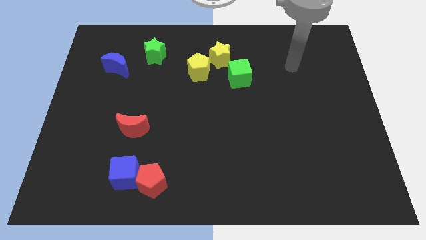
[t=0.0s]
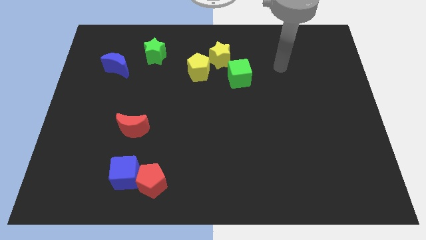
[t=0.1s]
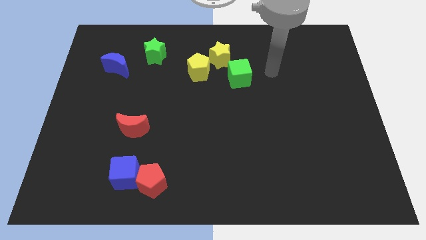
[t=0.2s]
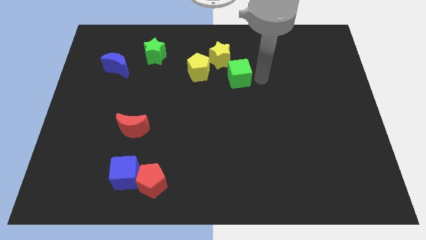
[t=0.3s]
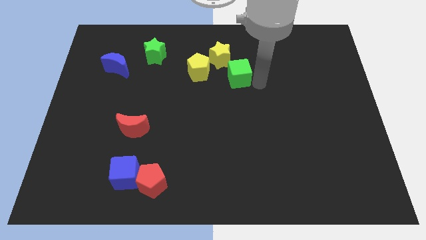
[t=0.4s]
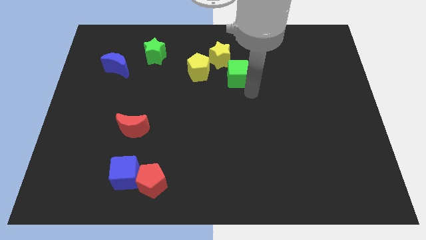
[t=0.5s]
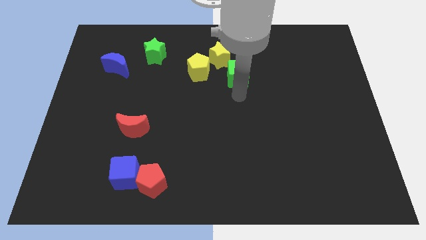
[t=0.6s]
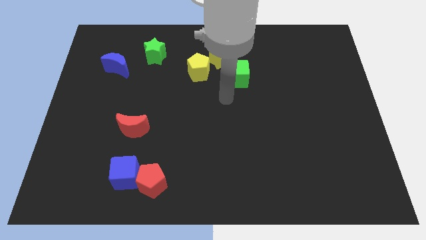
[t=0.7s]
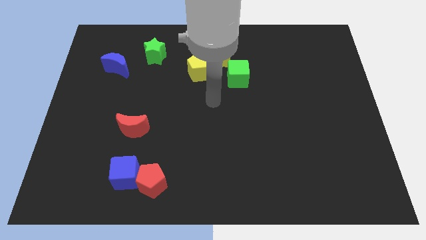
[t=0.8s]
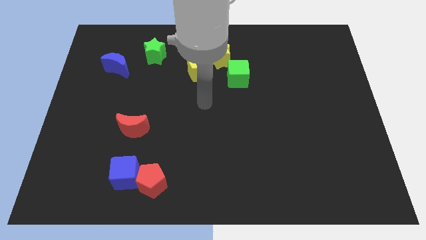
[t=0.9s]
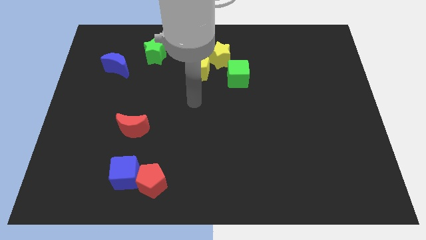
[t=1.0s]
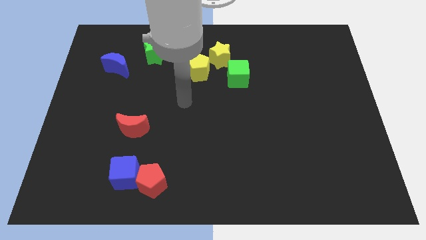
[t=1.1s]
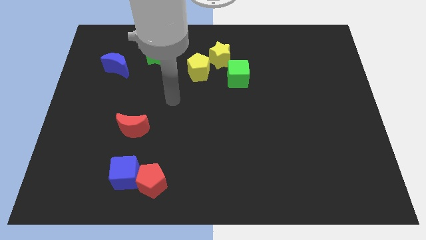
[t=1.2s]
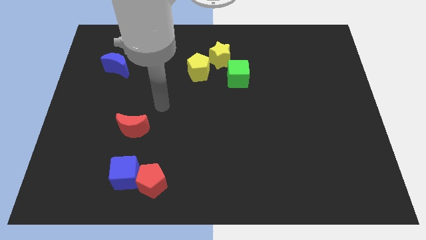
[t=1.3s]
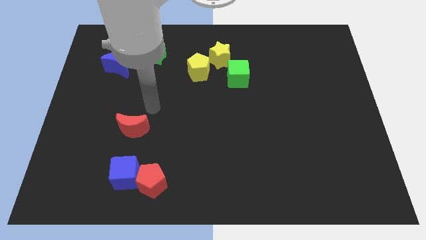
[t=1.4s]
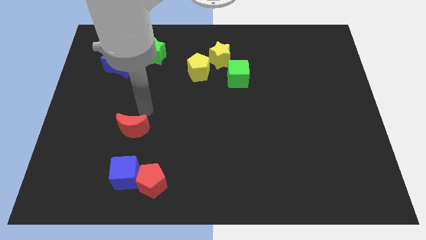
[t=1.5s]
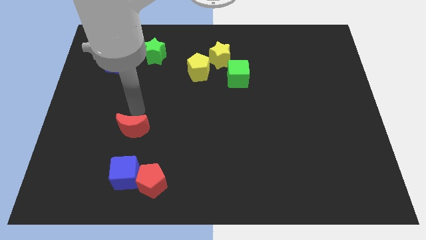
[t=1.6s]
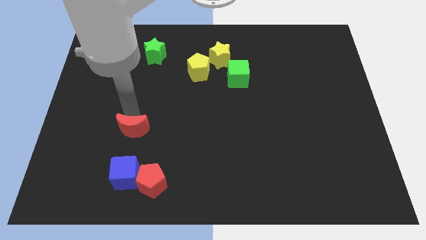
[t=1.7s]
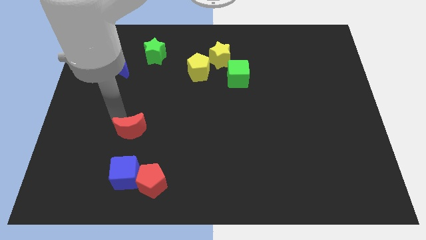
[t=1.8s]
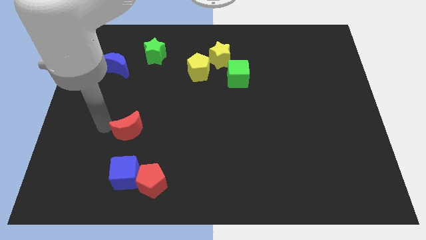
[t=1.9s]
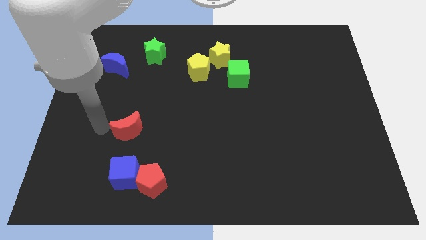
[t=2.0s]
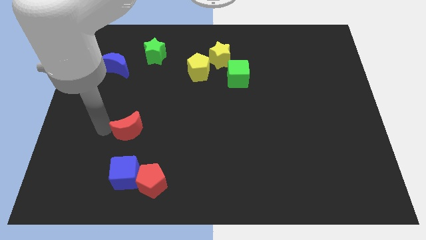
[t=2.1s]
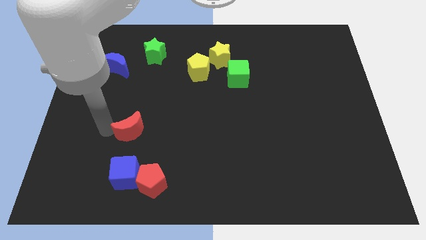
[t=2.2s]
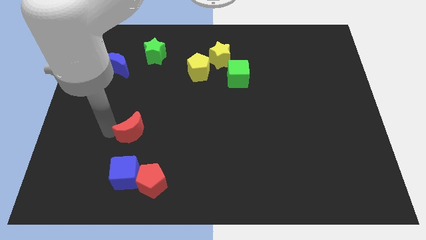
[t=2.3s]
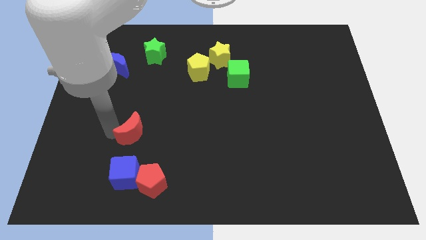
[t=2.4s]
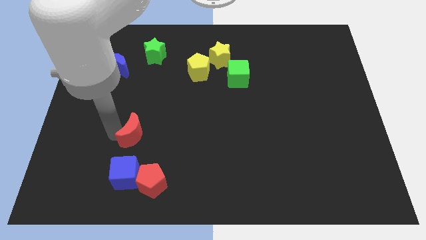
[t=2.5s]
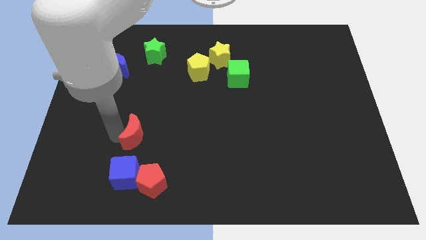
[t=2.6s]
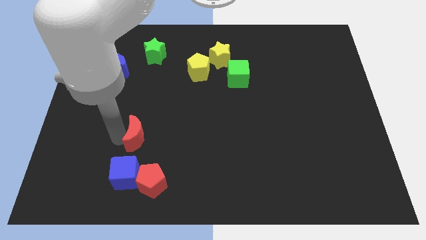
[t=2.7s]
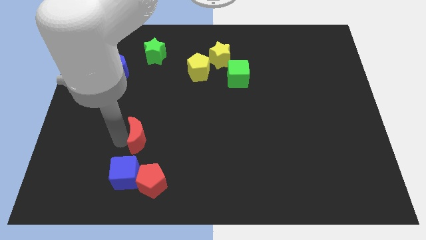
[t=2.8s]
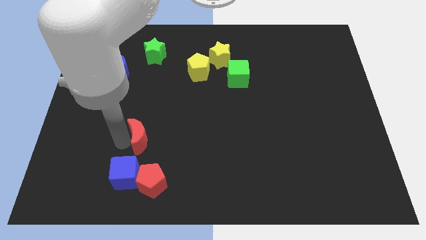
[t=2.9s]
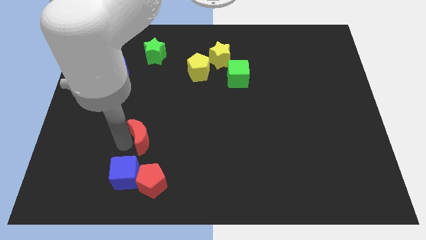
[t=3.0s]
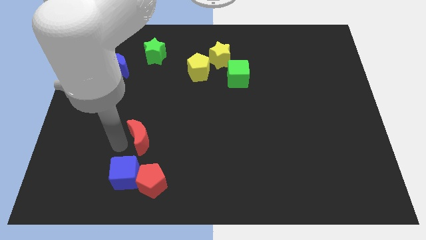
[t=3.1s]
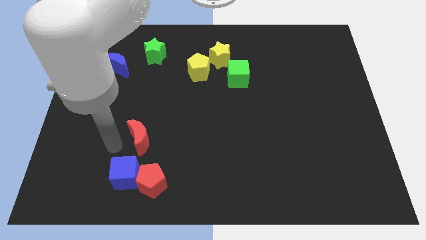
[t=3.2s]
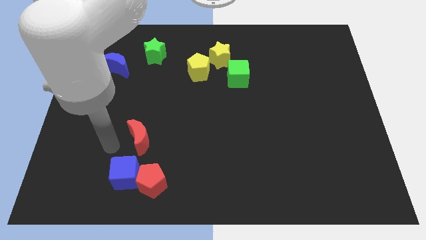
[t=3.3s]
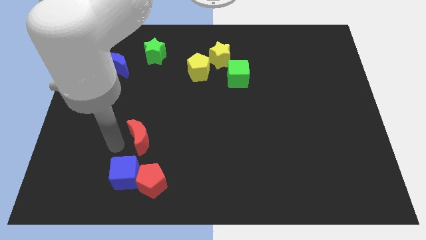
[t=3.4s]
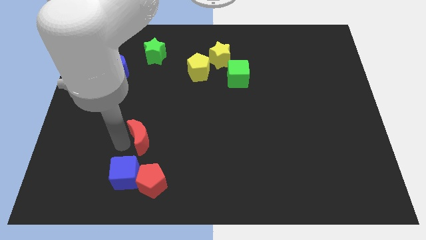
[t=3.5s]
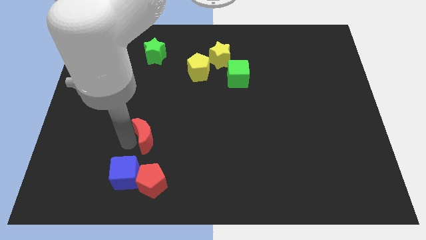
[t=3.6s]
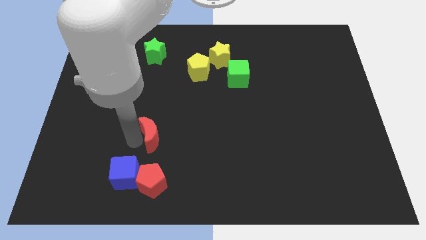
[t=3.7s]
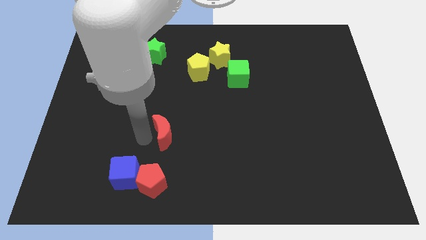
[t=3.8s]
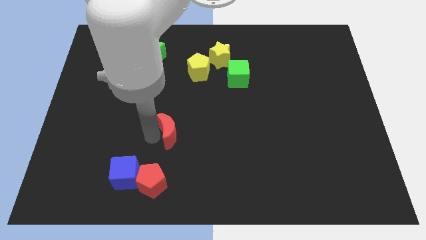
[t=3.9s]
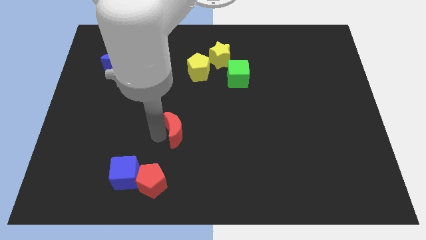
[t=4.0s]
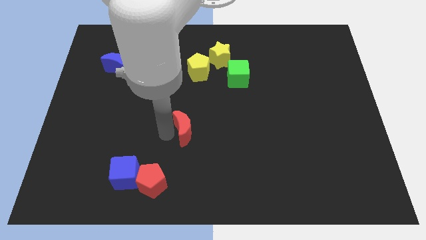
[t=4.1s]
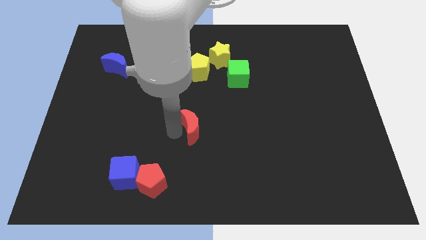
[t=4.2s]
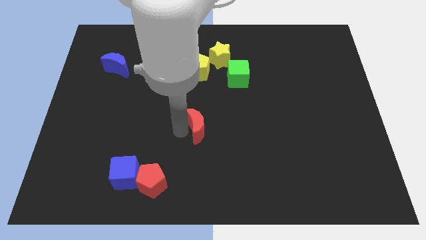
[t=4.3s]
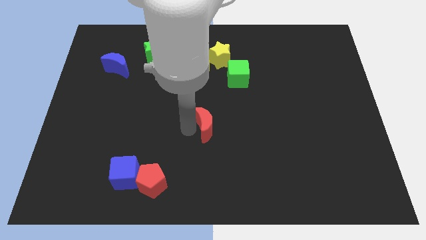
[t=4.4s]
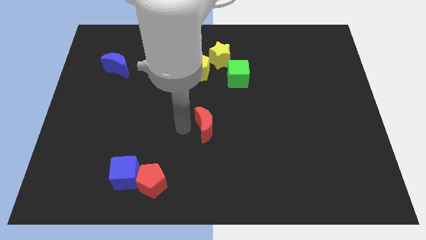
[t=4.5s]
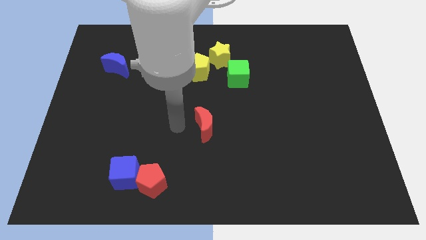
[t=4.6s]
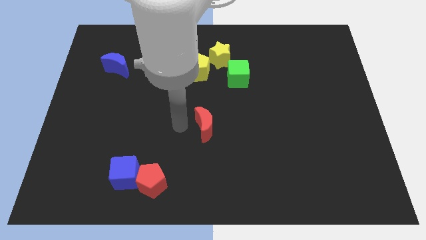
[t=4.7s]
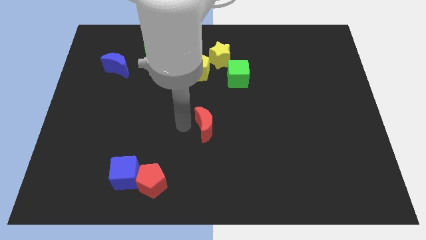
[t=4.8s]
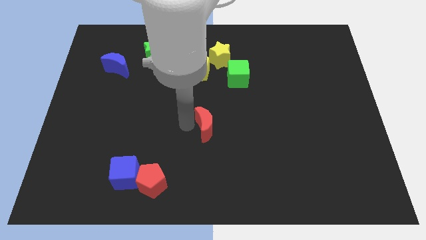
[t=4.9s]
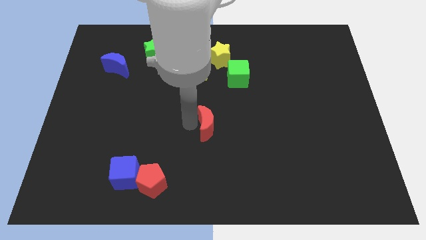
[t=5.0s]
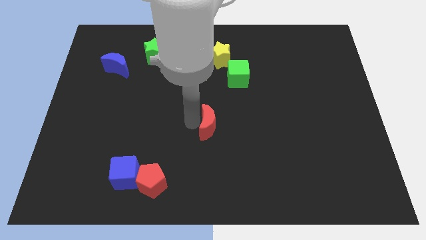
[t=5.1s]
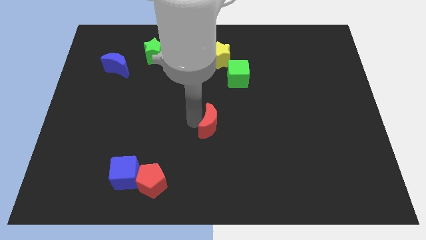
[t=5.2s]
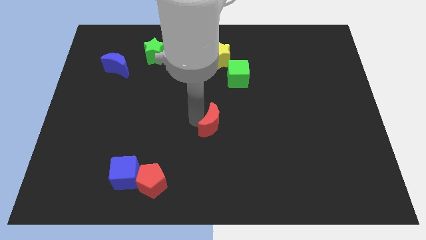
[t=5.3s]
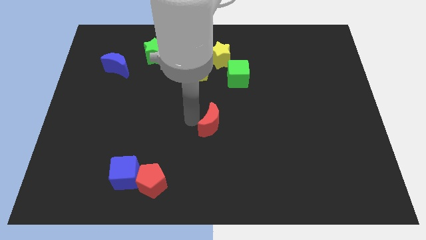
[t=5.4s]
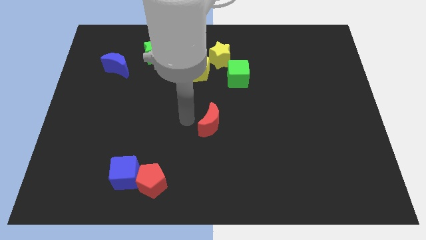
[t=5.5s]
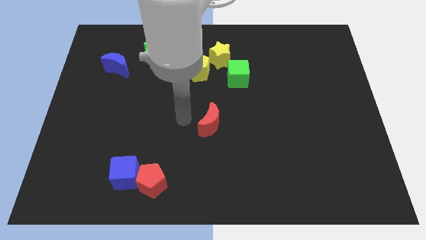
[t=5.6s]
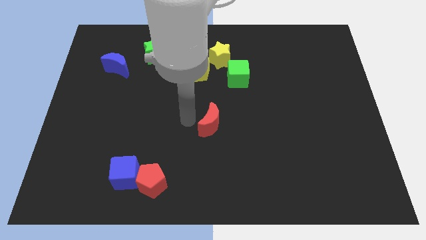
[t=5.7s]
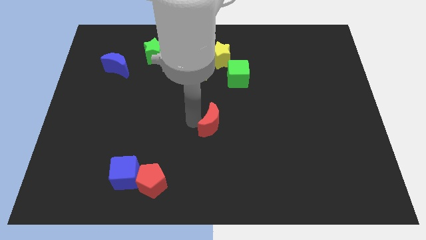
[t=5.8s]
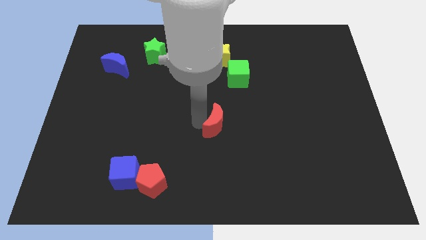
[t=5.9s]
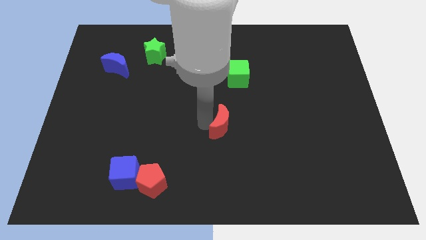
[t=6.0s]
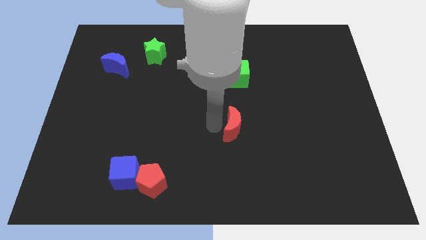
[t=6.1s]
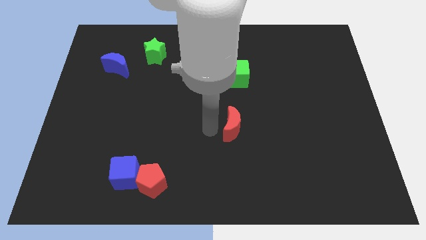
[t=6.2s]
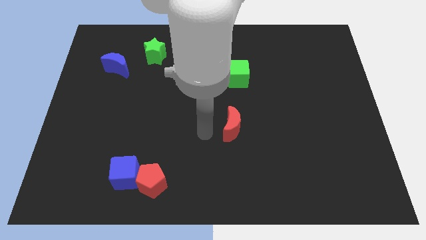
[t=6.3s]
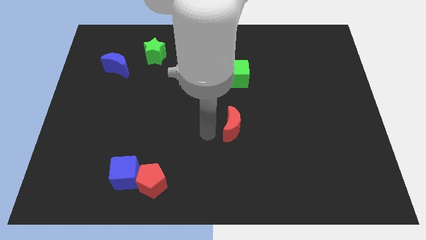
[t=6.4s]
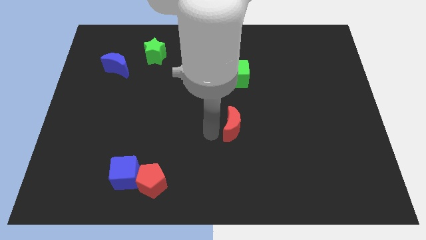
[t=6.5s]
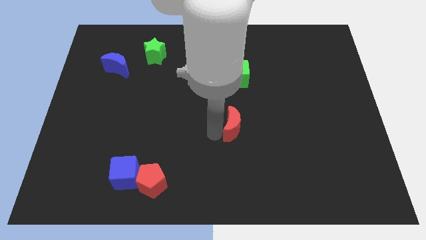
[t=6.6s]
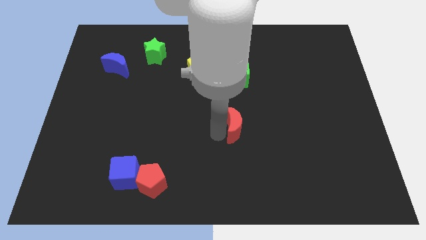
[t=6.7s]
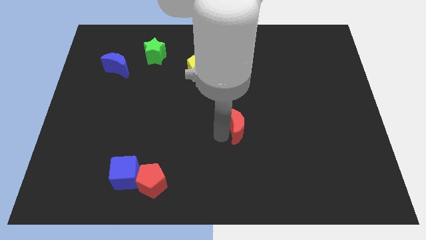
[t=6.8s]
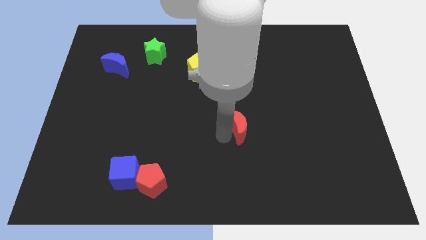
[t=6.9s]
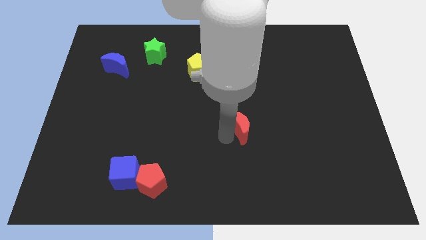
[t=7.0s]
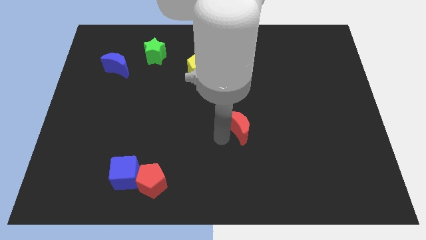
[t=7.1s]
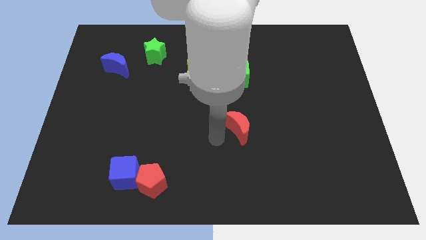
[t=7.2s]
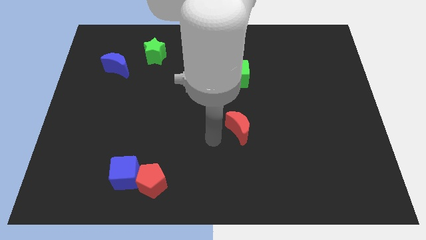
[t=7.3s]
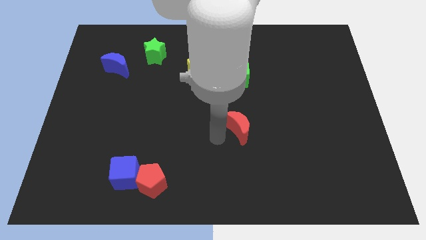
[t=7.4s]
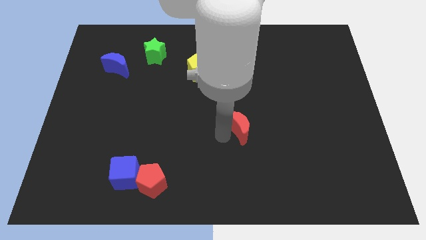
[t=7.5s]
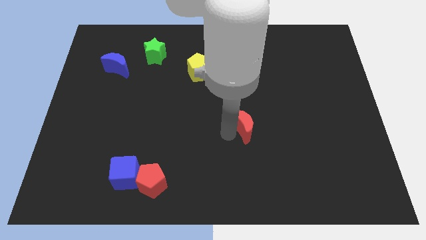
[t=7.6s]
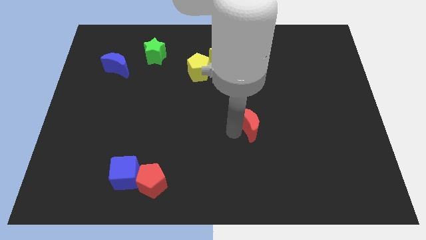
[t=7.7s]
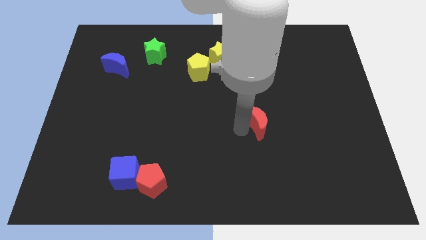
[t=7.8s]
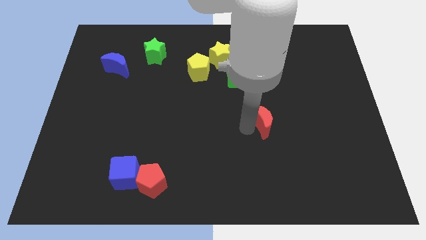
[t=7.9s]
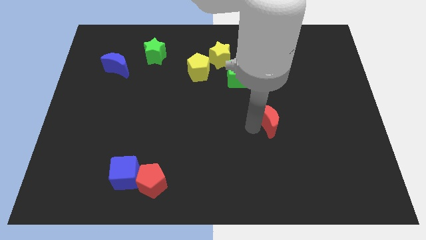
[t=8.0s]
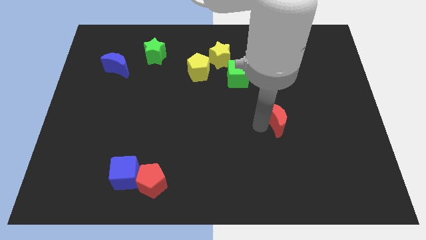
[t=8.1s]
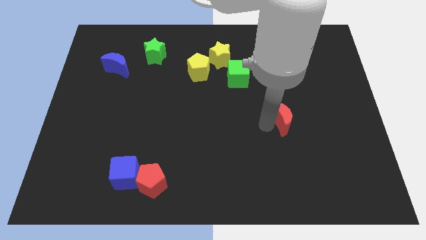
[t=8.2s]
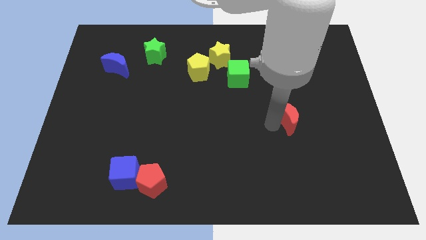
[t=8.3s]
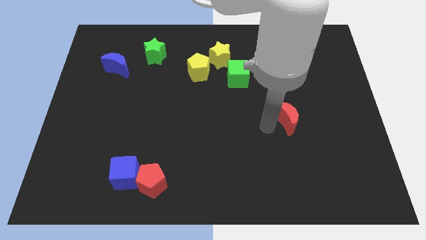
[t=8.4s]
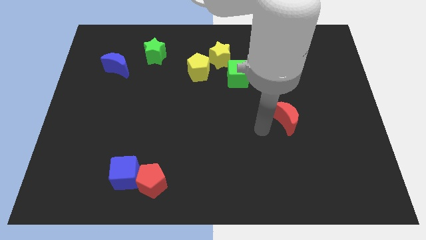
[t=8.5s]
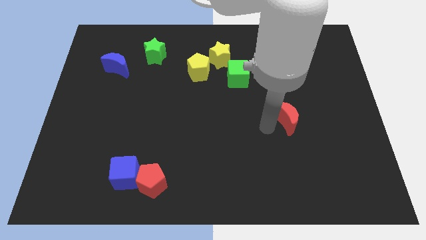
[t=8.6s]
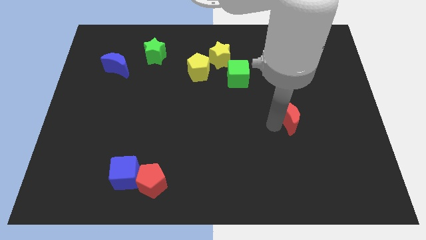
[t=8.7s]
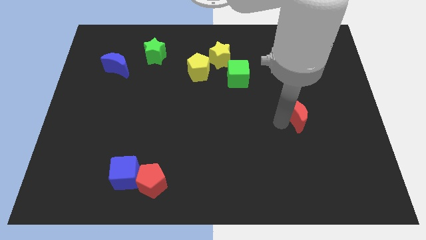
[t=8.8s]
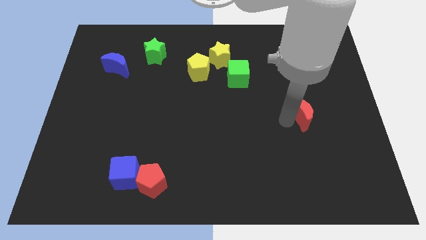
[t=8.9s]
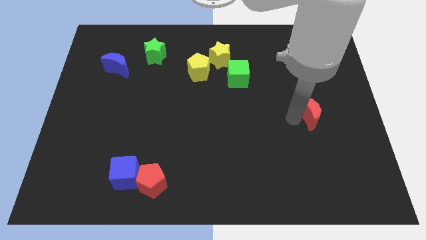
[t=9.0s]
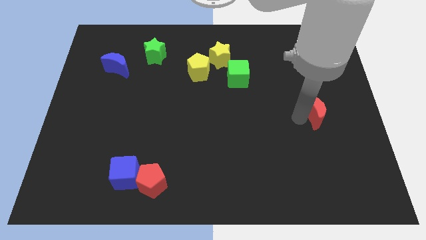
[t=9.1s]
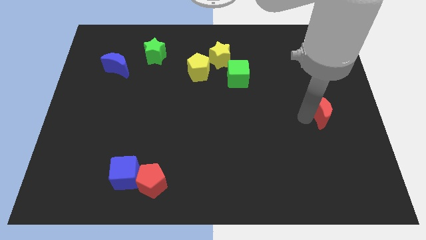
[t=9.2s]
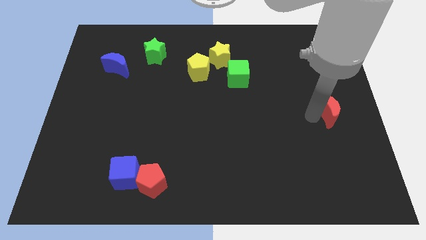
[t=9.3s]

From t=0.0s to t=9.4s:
push the red moon to the right side of the board
